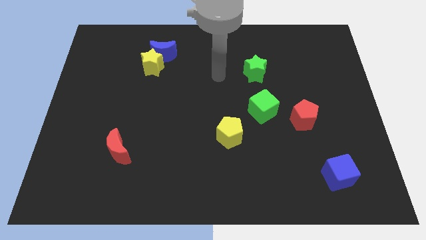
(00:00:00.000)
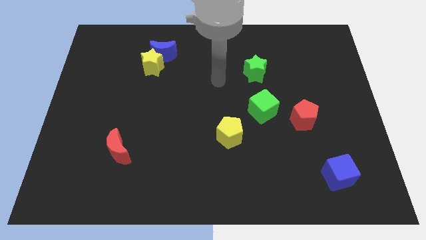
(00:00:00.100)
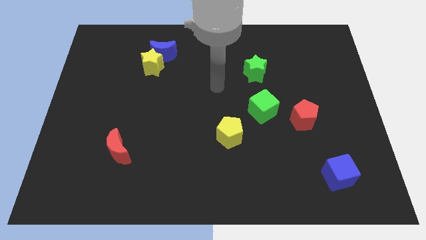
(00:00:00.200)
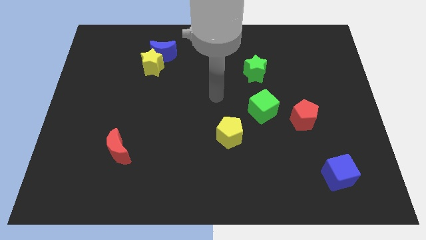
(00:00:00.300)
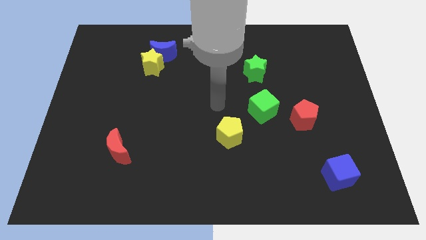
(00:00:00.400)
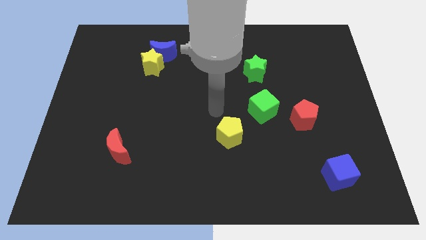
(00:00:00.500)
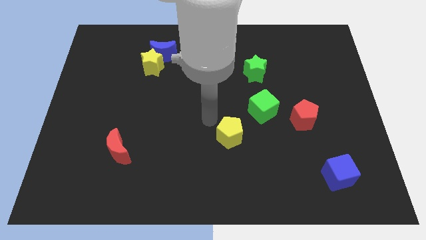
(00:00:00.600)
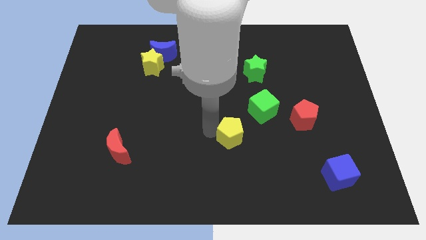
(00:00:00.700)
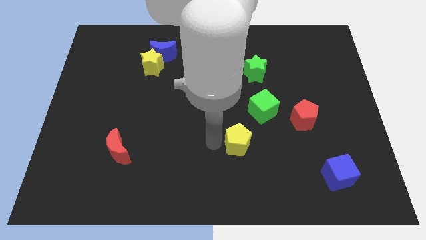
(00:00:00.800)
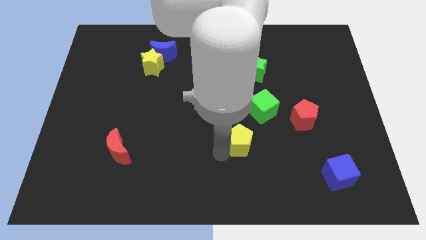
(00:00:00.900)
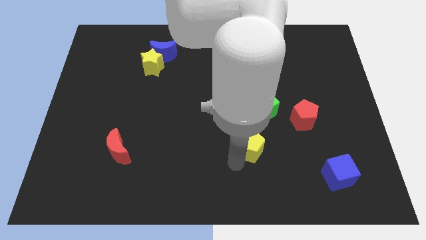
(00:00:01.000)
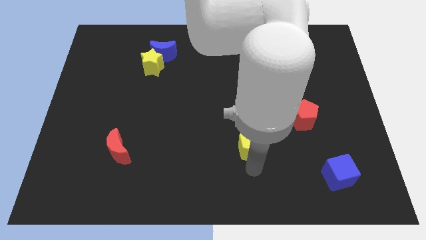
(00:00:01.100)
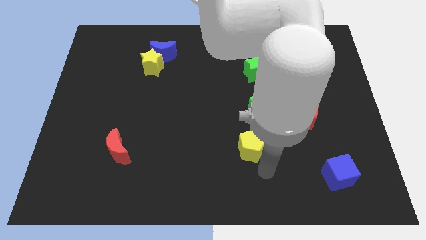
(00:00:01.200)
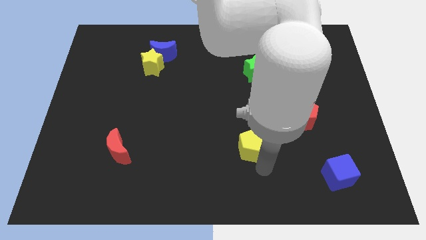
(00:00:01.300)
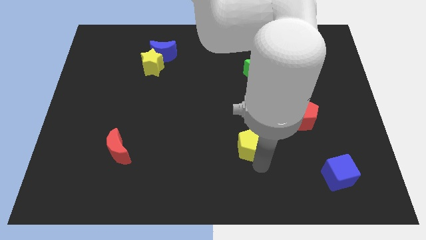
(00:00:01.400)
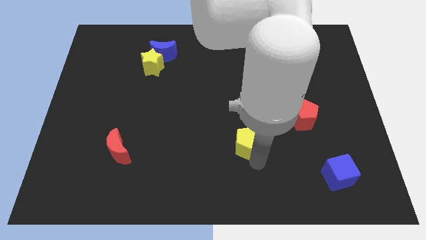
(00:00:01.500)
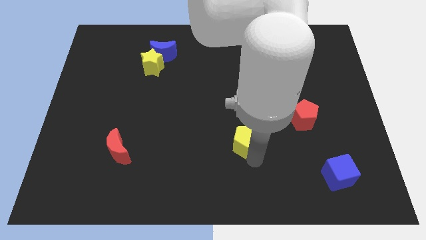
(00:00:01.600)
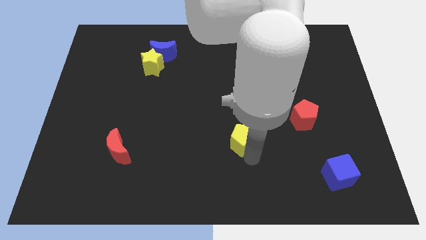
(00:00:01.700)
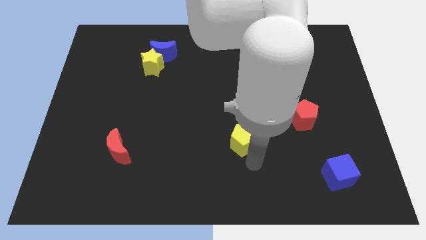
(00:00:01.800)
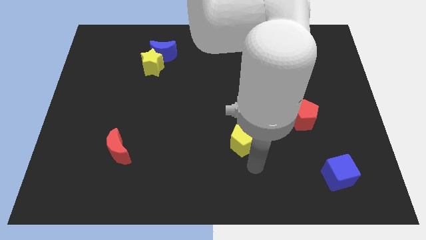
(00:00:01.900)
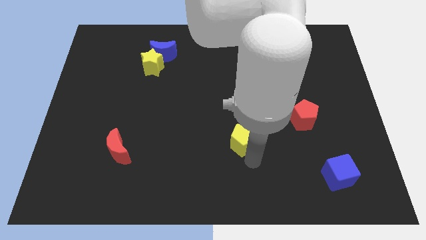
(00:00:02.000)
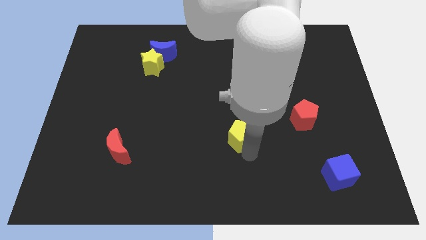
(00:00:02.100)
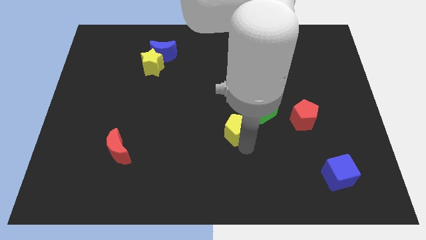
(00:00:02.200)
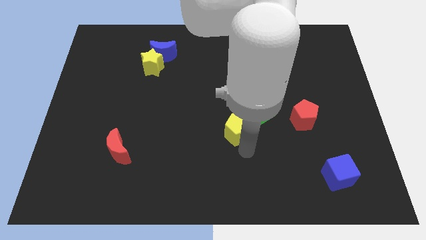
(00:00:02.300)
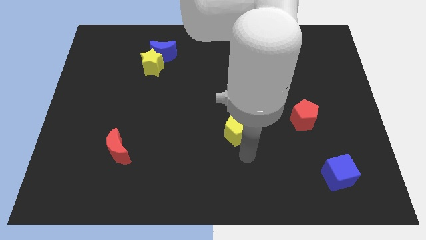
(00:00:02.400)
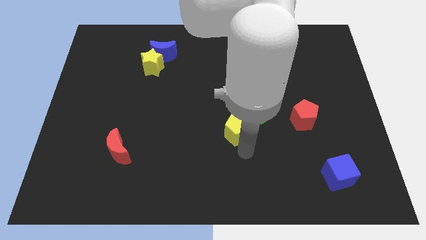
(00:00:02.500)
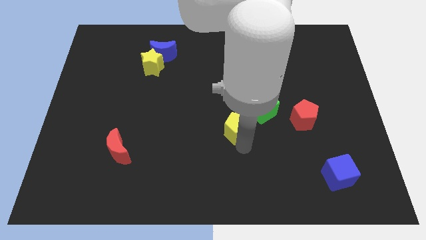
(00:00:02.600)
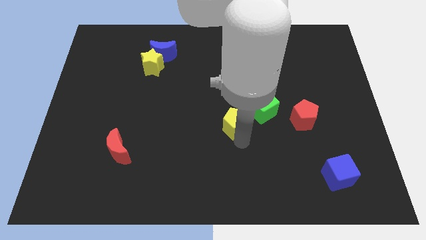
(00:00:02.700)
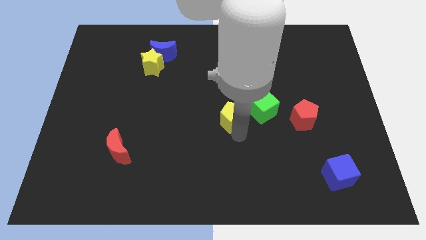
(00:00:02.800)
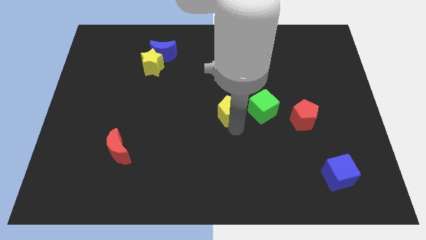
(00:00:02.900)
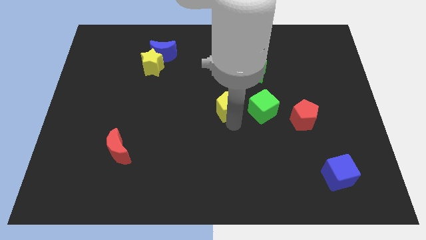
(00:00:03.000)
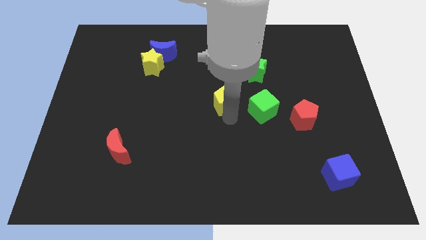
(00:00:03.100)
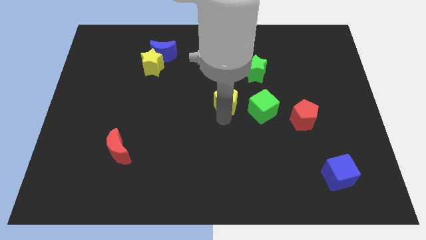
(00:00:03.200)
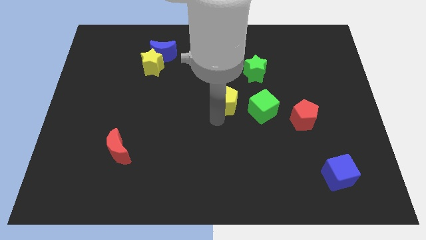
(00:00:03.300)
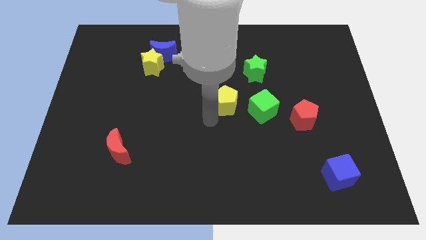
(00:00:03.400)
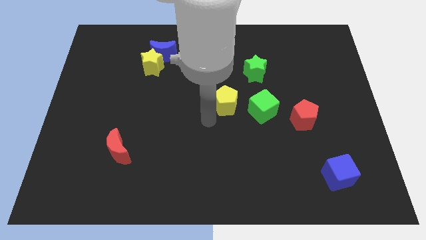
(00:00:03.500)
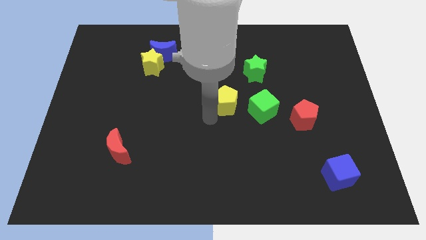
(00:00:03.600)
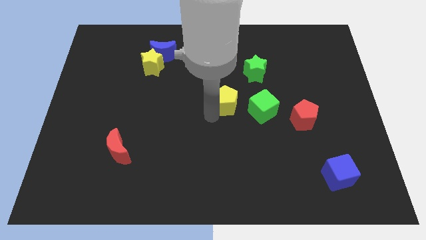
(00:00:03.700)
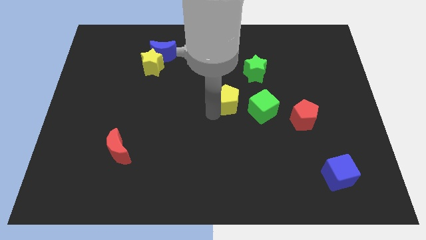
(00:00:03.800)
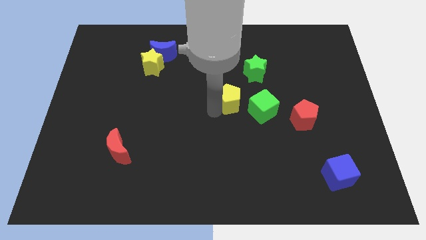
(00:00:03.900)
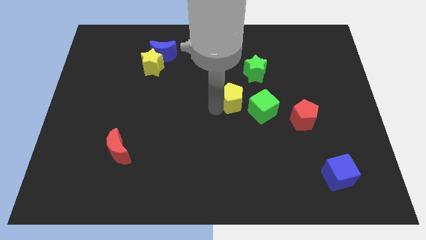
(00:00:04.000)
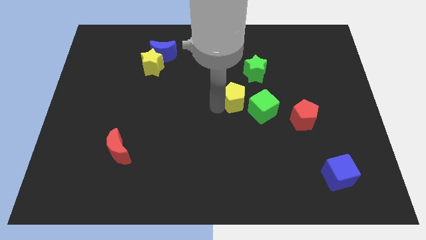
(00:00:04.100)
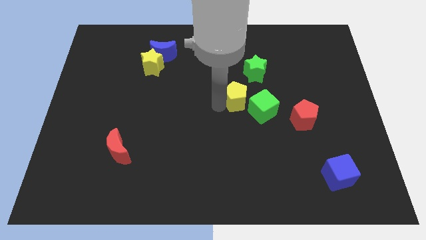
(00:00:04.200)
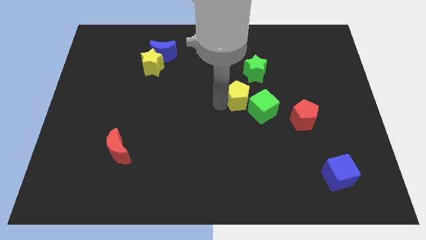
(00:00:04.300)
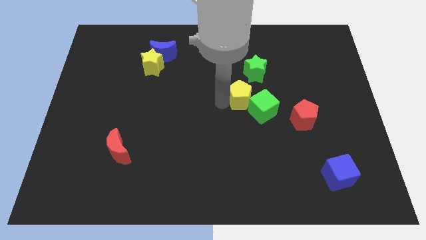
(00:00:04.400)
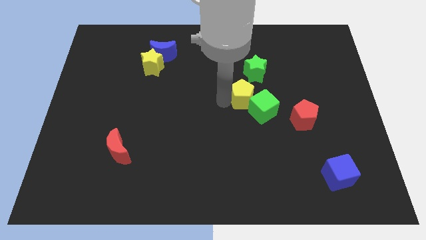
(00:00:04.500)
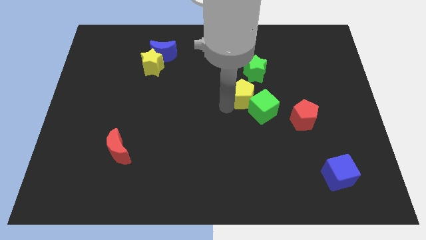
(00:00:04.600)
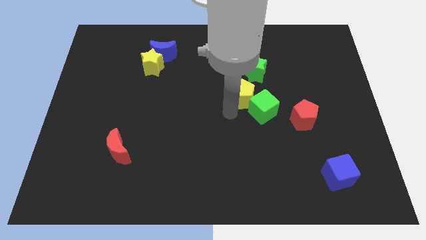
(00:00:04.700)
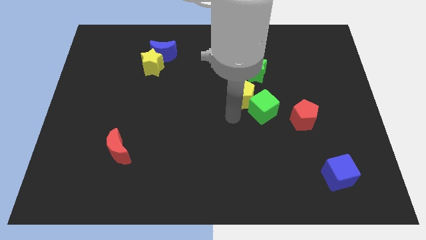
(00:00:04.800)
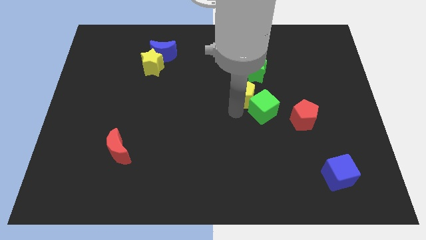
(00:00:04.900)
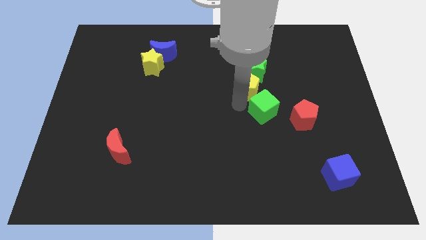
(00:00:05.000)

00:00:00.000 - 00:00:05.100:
push the yellow pentagon to the green star

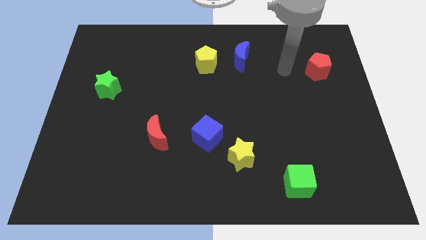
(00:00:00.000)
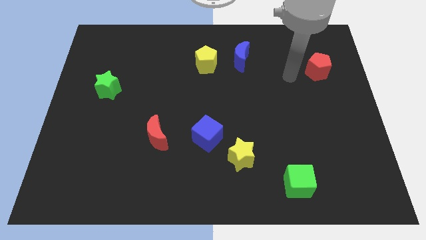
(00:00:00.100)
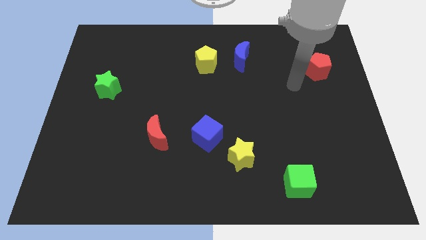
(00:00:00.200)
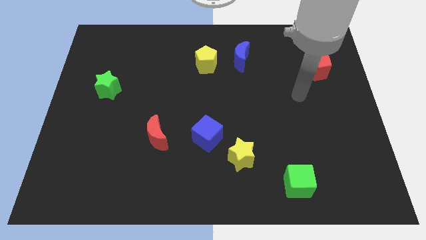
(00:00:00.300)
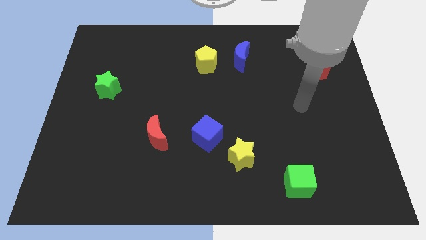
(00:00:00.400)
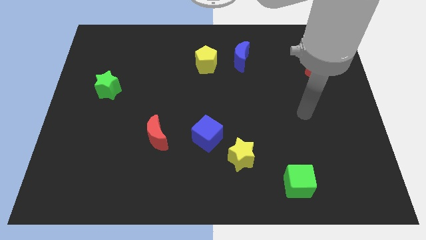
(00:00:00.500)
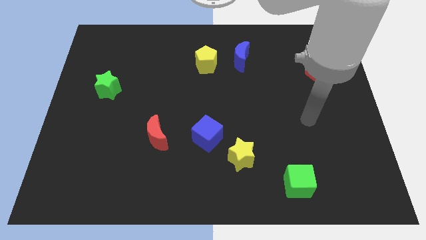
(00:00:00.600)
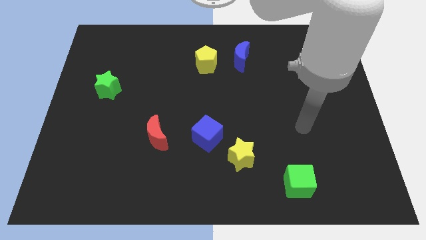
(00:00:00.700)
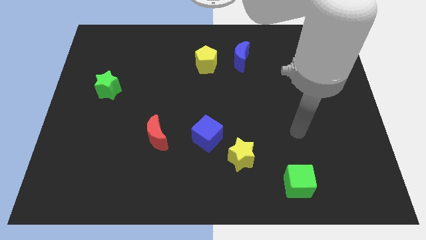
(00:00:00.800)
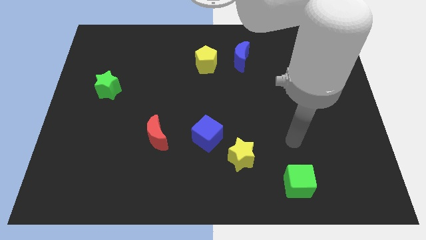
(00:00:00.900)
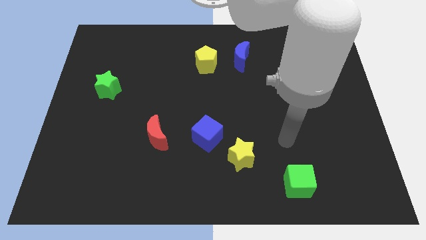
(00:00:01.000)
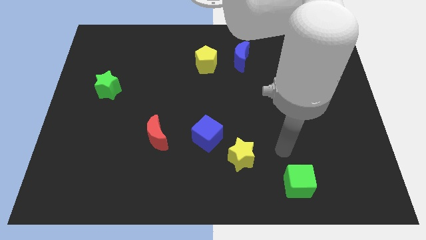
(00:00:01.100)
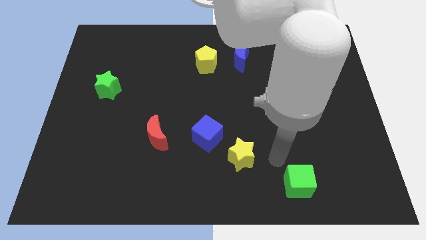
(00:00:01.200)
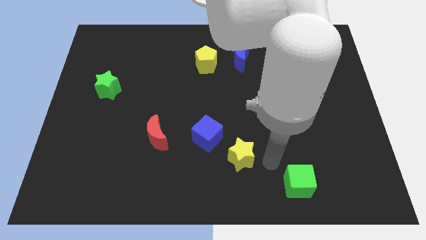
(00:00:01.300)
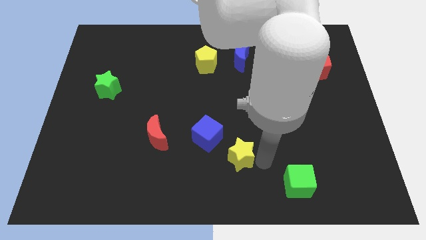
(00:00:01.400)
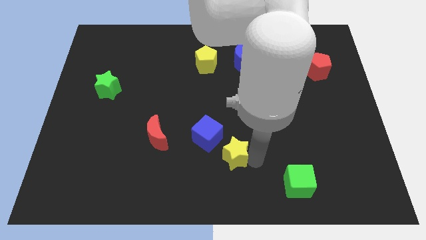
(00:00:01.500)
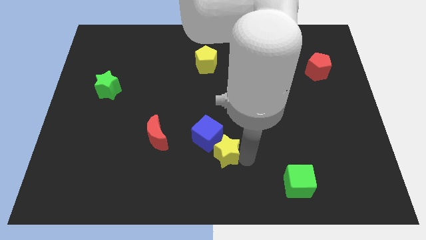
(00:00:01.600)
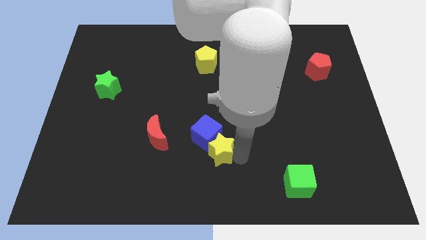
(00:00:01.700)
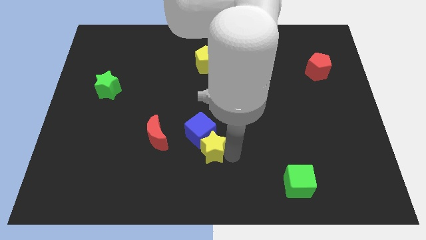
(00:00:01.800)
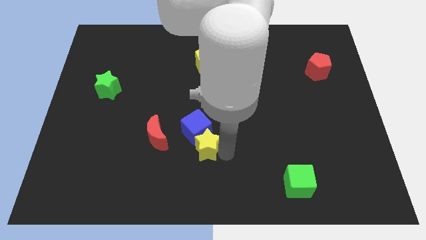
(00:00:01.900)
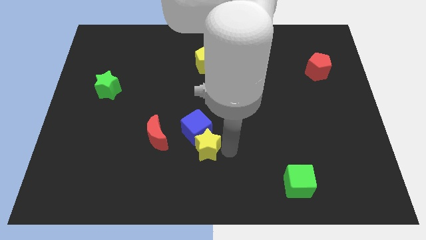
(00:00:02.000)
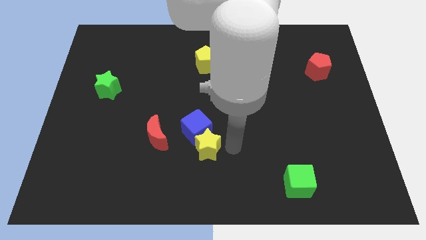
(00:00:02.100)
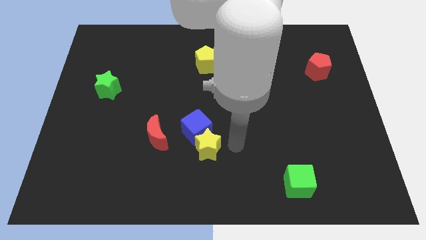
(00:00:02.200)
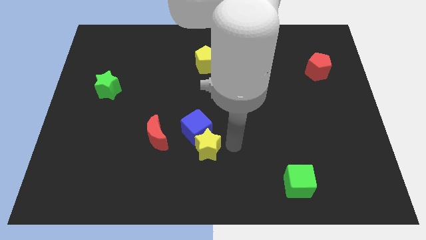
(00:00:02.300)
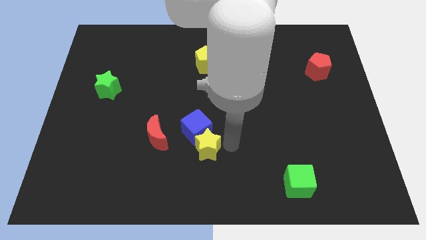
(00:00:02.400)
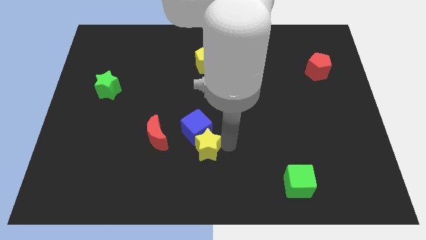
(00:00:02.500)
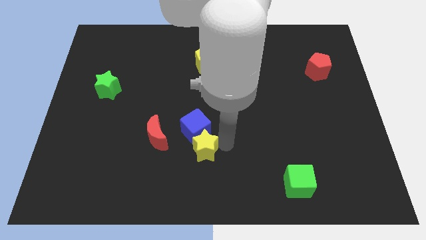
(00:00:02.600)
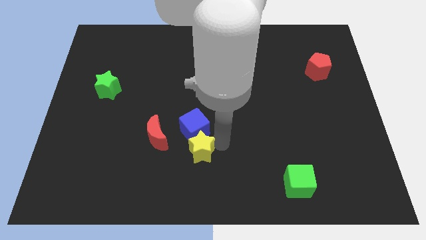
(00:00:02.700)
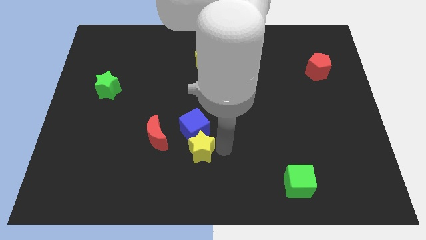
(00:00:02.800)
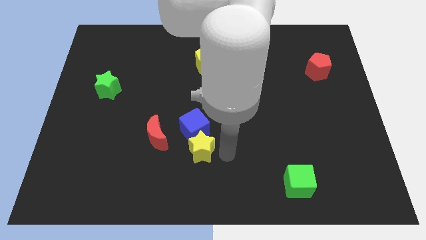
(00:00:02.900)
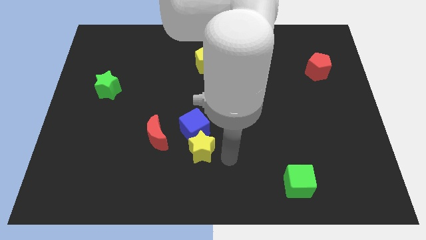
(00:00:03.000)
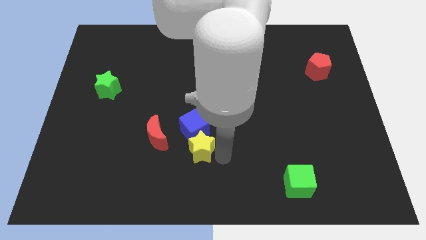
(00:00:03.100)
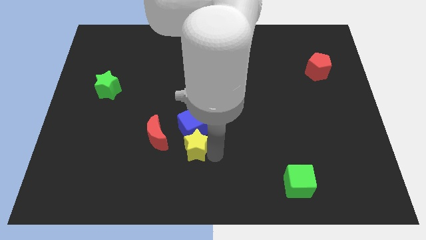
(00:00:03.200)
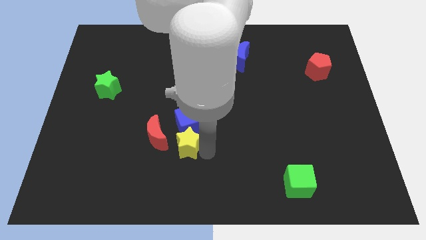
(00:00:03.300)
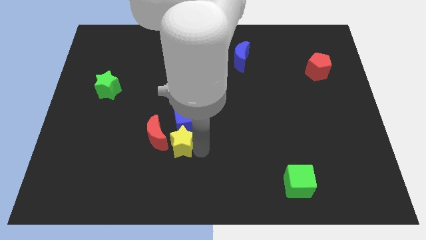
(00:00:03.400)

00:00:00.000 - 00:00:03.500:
push the yellow star close to the red moon
